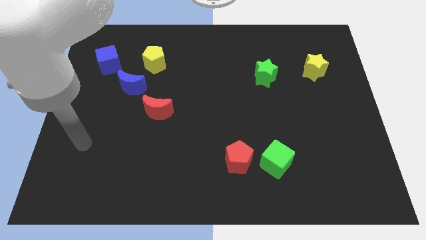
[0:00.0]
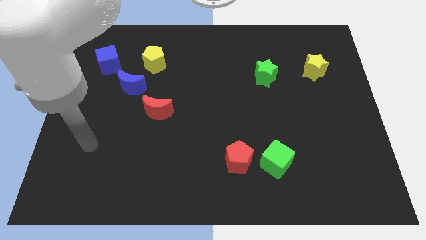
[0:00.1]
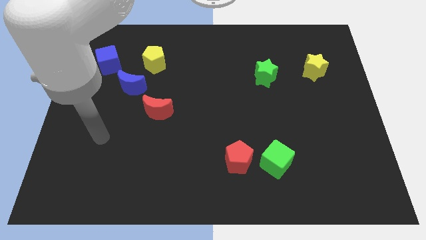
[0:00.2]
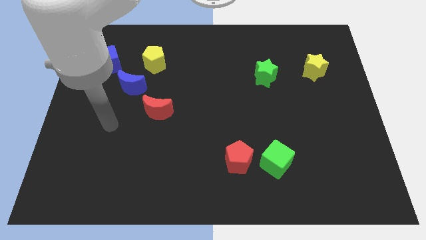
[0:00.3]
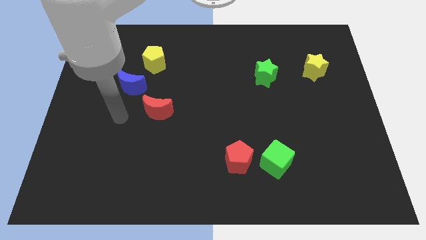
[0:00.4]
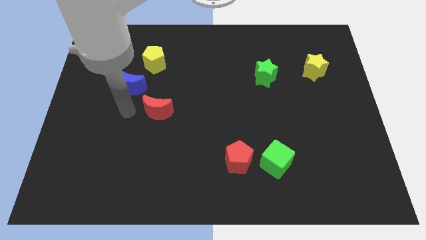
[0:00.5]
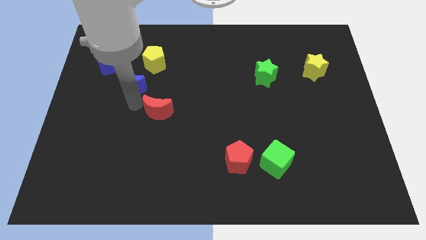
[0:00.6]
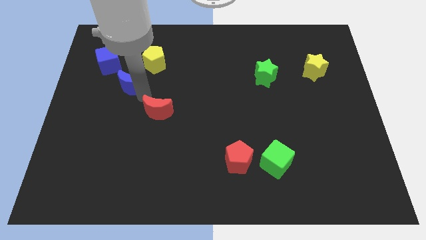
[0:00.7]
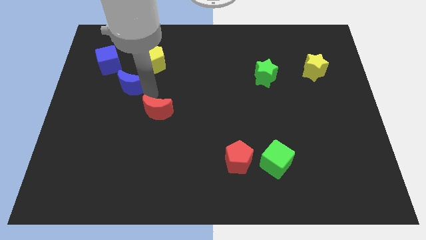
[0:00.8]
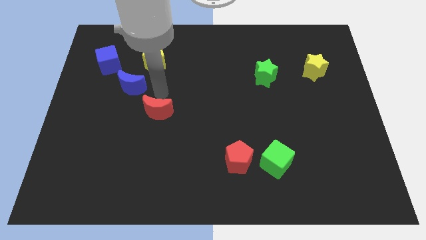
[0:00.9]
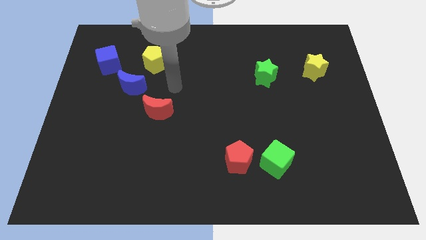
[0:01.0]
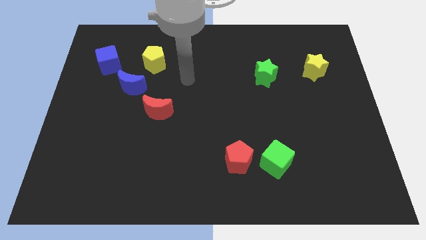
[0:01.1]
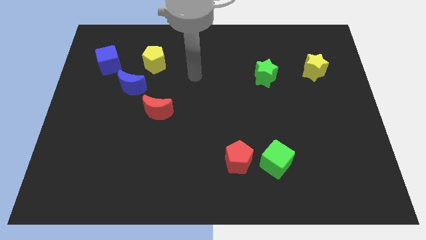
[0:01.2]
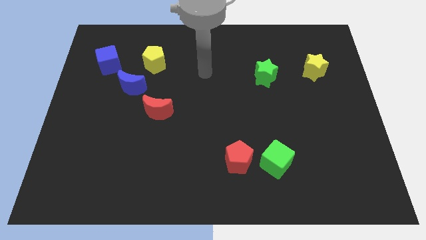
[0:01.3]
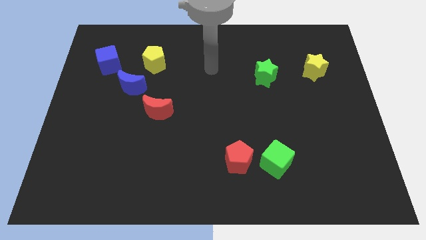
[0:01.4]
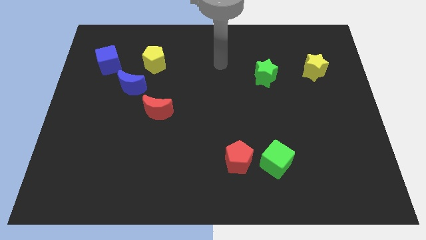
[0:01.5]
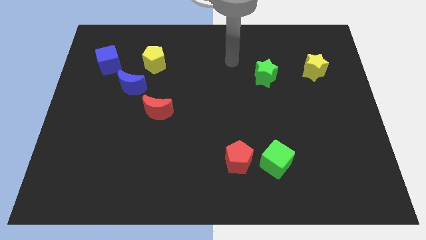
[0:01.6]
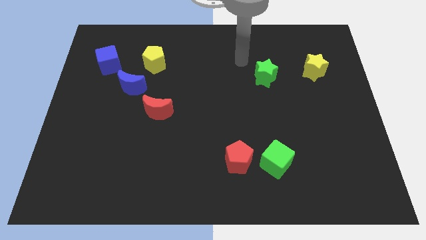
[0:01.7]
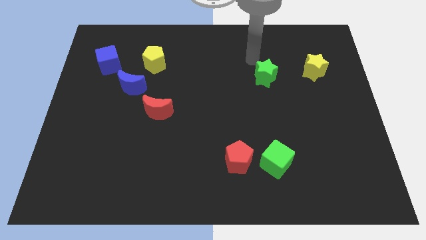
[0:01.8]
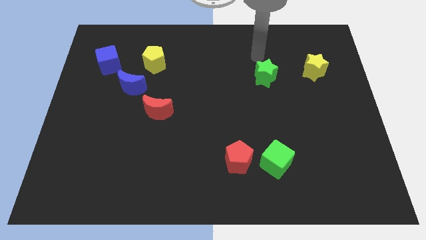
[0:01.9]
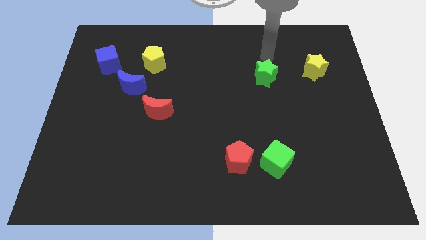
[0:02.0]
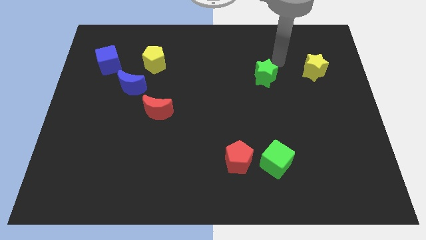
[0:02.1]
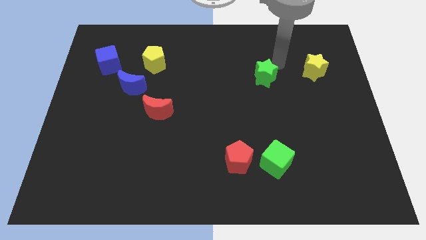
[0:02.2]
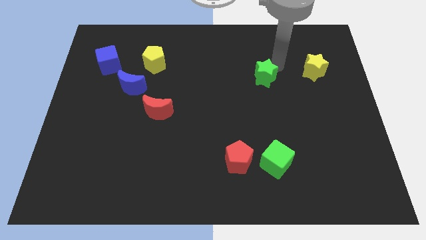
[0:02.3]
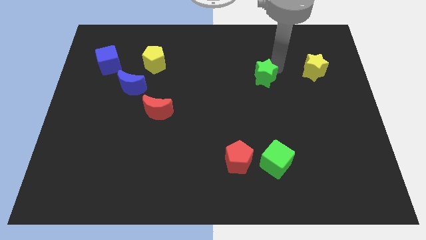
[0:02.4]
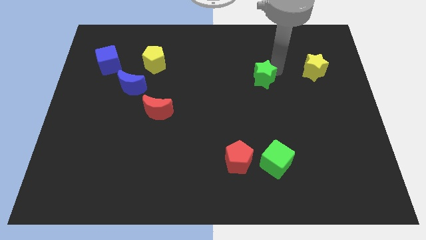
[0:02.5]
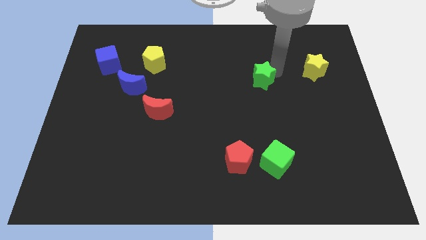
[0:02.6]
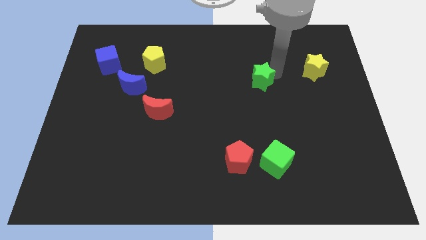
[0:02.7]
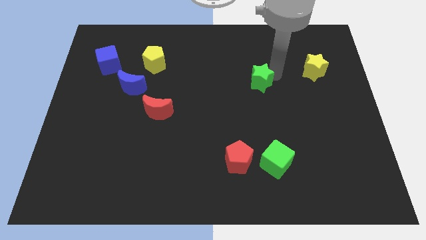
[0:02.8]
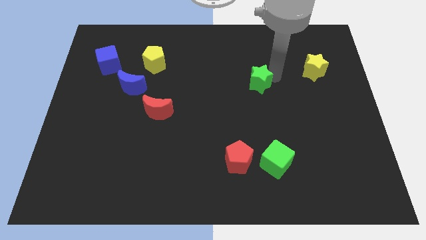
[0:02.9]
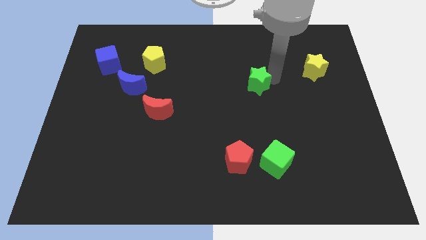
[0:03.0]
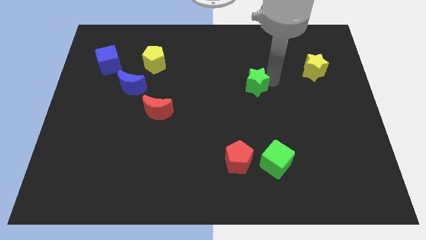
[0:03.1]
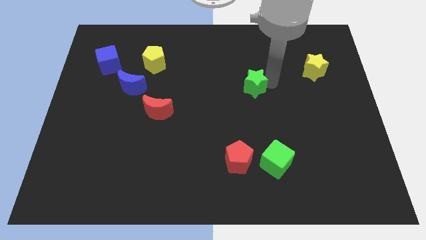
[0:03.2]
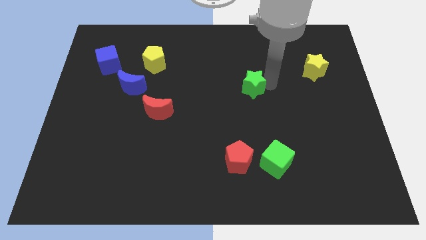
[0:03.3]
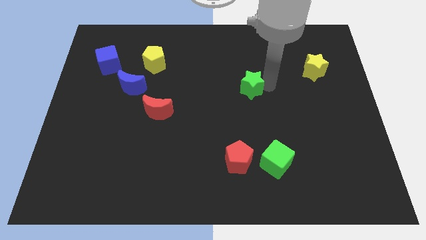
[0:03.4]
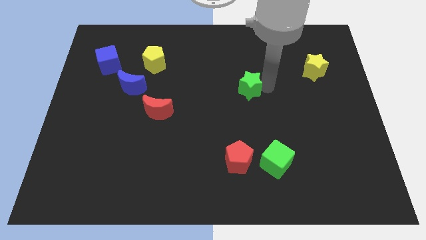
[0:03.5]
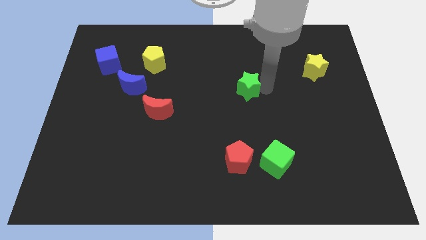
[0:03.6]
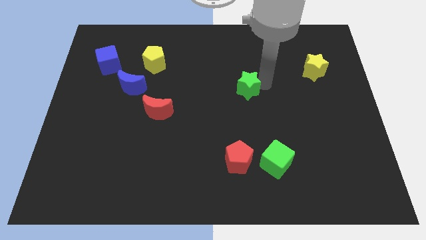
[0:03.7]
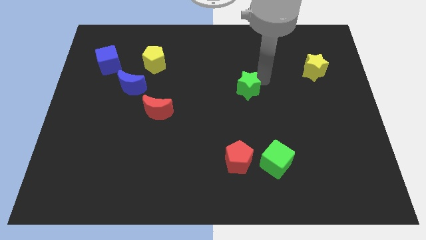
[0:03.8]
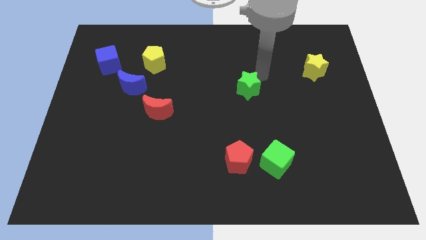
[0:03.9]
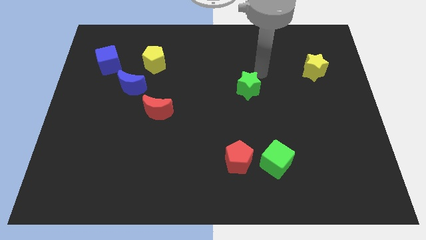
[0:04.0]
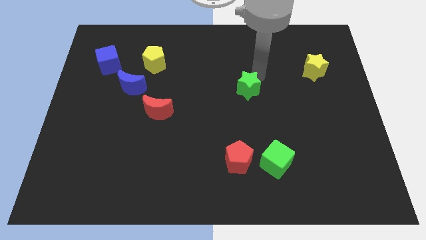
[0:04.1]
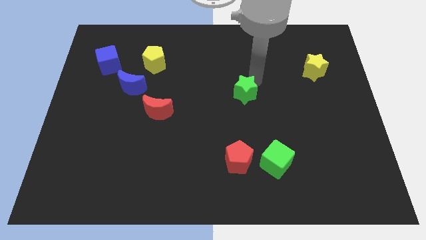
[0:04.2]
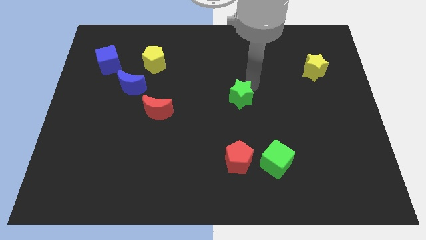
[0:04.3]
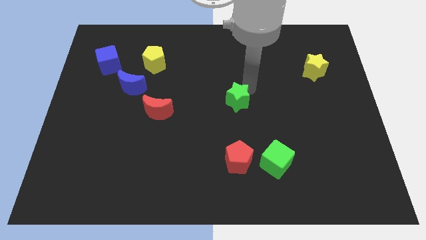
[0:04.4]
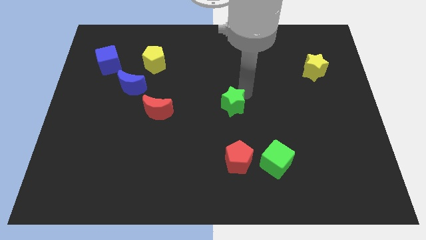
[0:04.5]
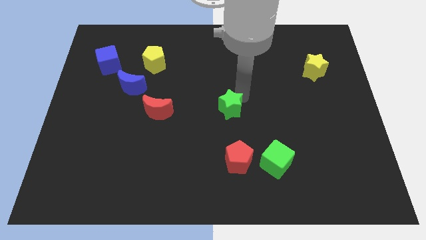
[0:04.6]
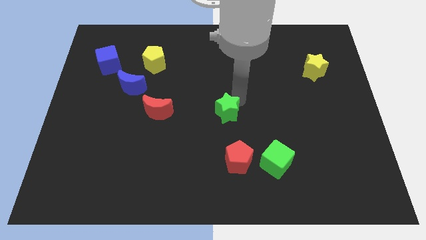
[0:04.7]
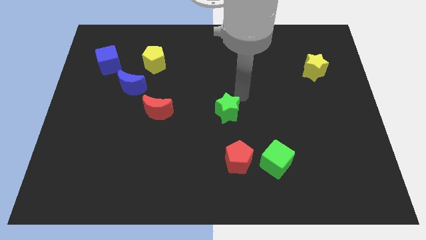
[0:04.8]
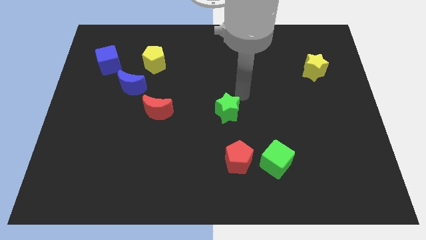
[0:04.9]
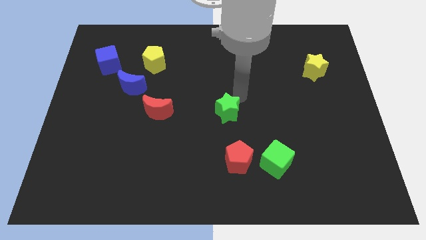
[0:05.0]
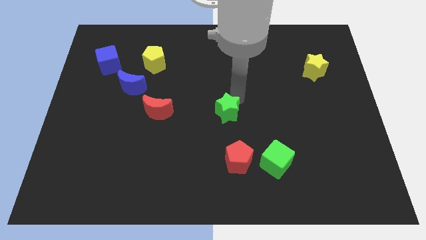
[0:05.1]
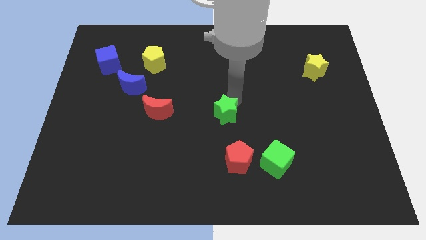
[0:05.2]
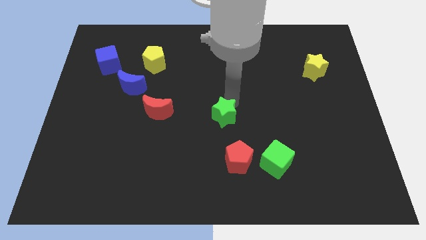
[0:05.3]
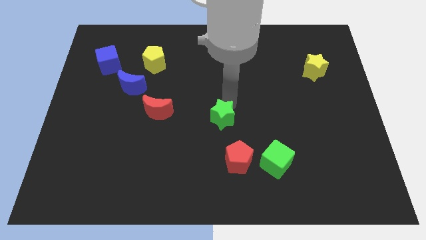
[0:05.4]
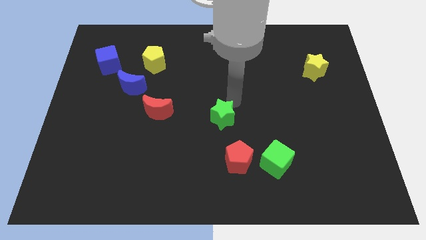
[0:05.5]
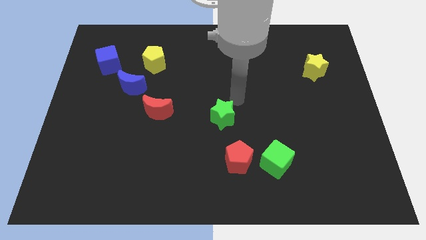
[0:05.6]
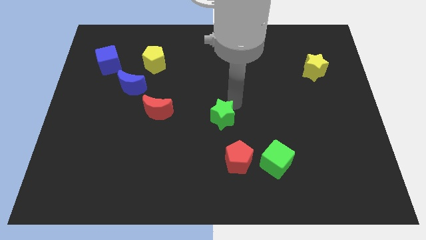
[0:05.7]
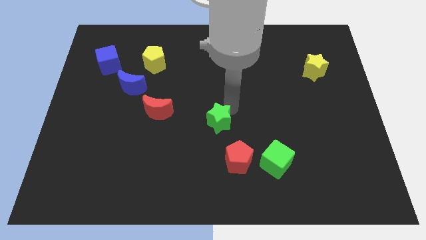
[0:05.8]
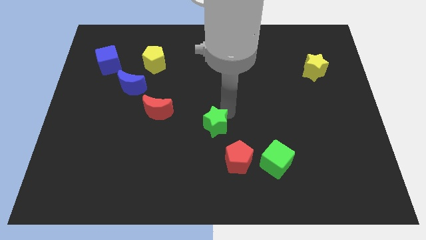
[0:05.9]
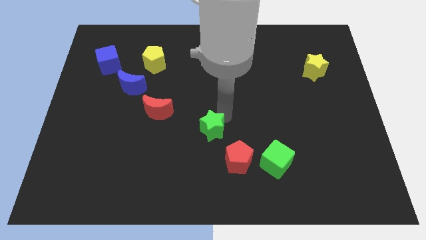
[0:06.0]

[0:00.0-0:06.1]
slide the green star down and then left

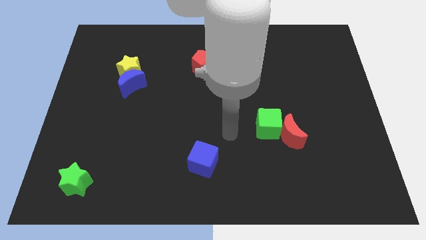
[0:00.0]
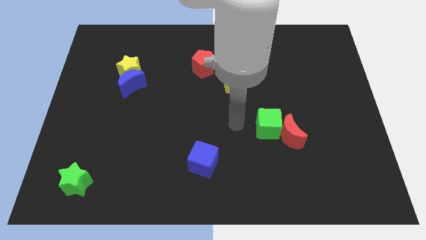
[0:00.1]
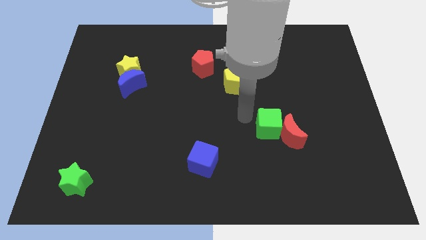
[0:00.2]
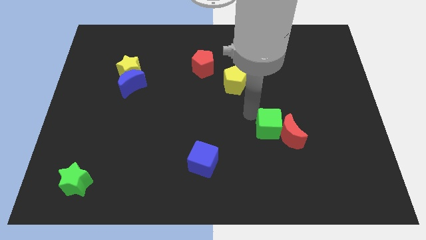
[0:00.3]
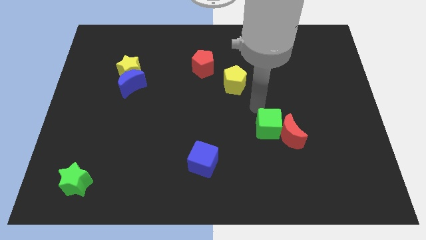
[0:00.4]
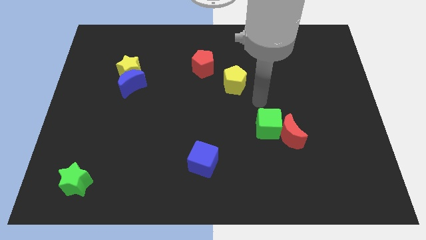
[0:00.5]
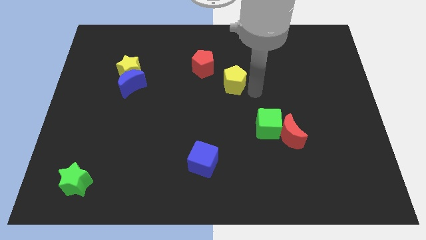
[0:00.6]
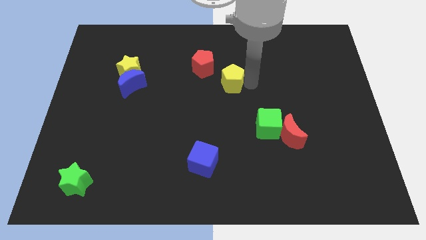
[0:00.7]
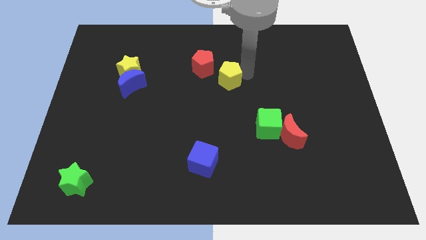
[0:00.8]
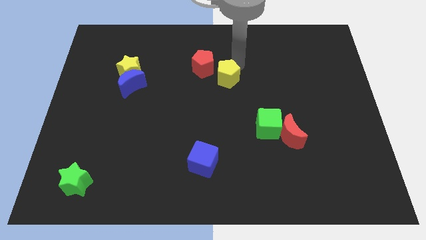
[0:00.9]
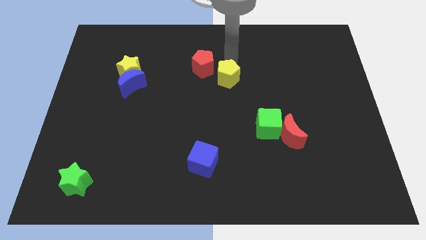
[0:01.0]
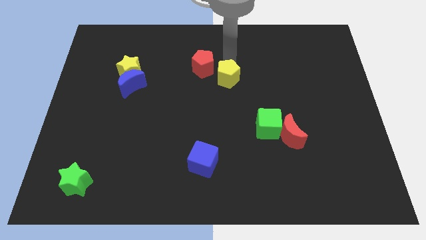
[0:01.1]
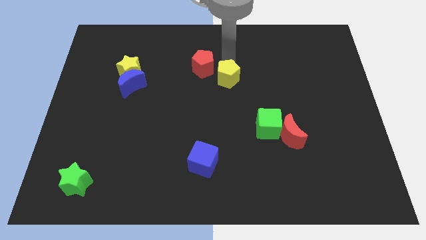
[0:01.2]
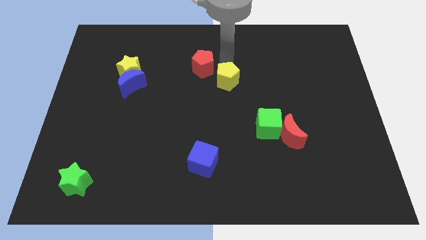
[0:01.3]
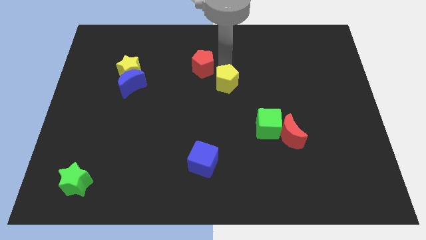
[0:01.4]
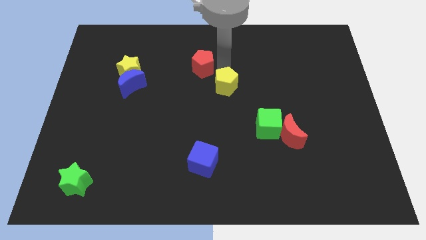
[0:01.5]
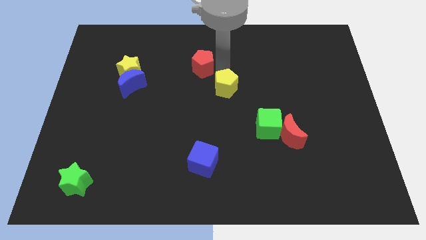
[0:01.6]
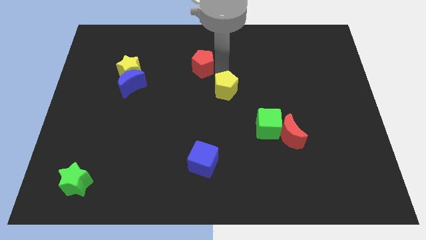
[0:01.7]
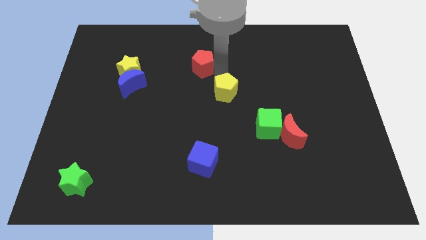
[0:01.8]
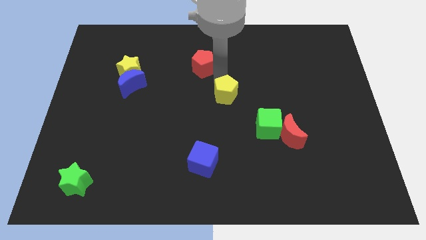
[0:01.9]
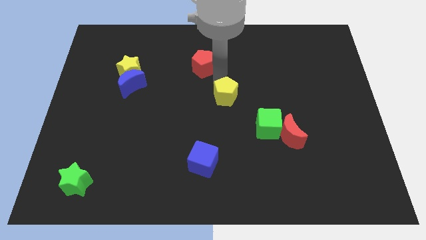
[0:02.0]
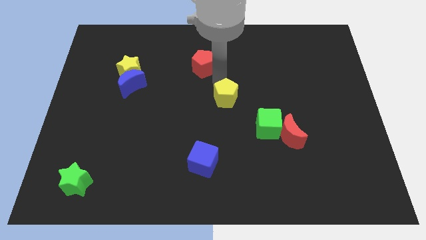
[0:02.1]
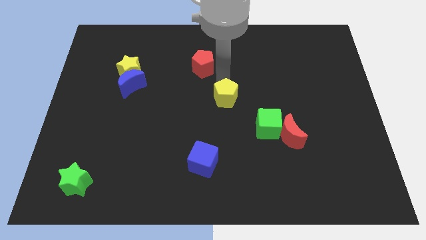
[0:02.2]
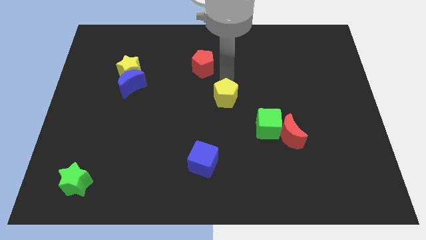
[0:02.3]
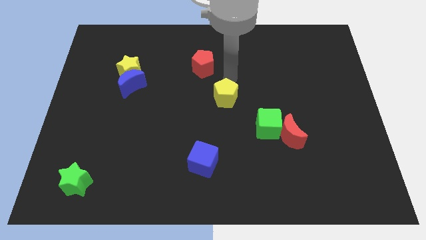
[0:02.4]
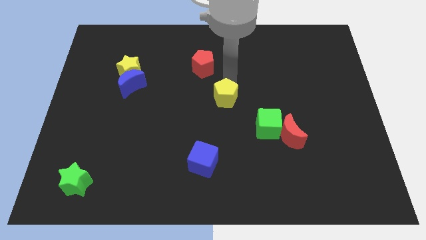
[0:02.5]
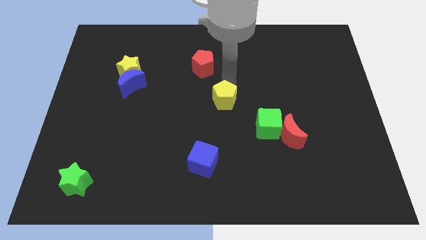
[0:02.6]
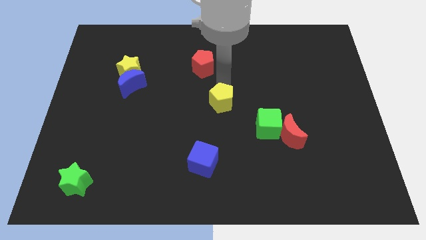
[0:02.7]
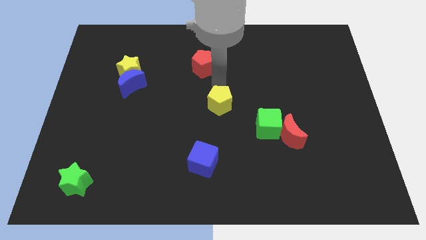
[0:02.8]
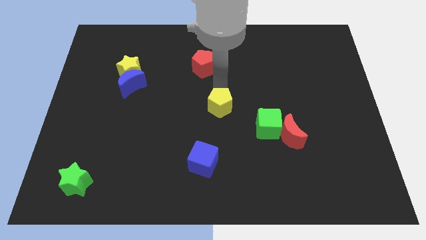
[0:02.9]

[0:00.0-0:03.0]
slide the yellow pentagon downwards a little
